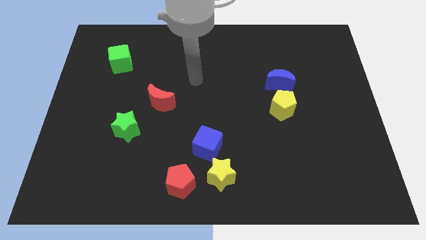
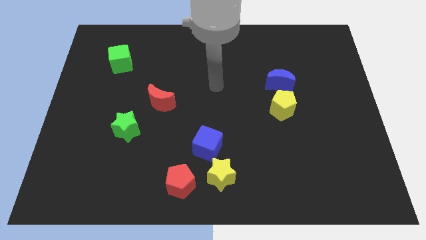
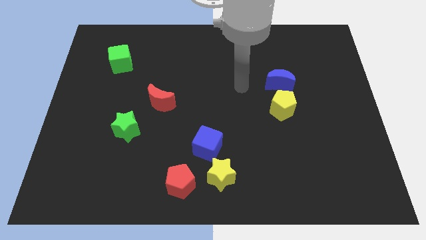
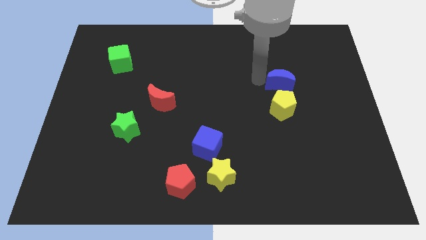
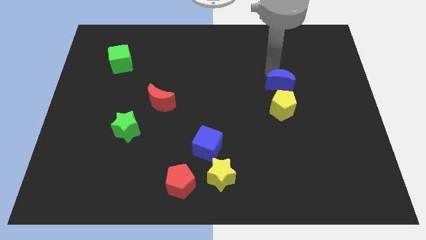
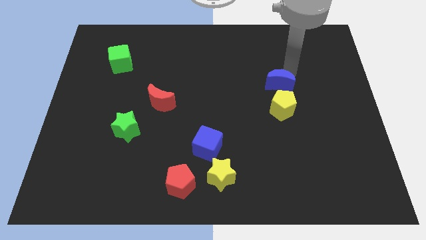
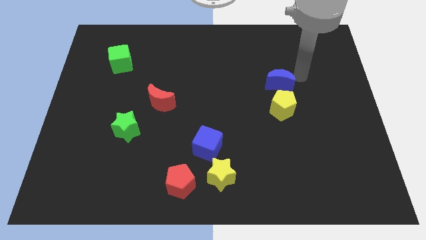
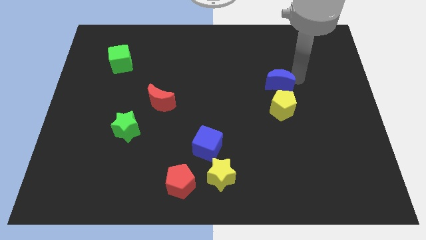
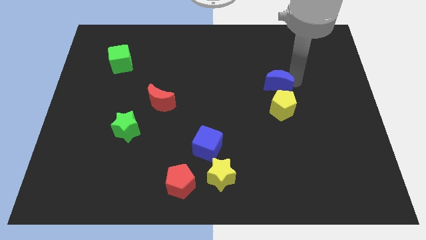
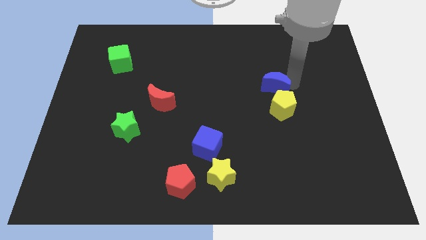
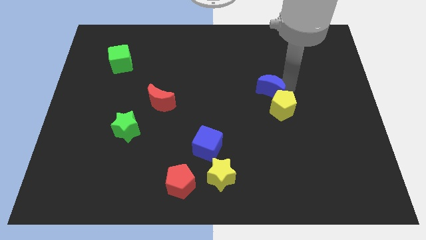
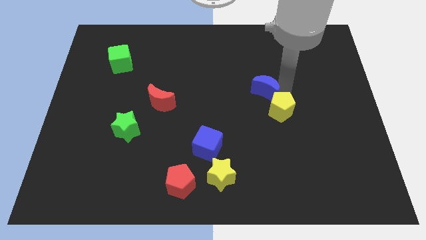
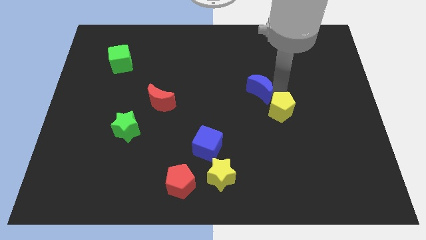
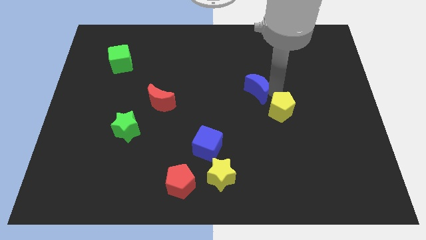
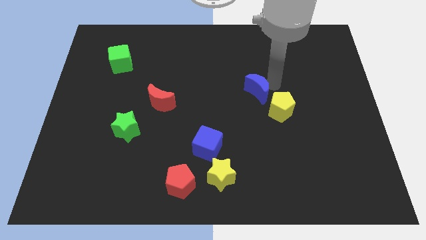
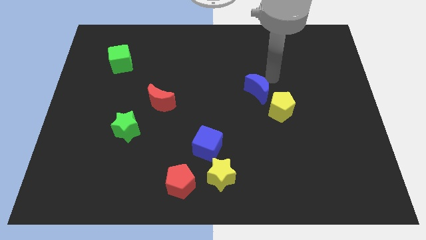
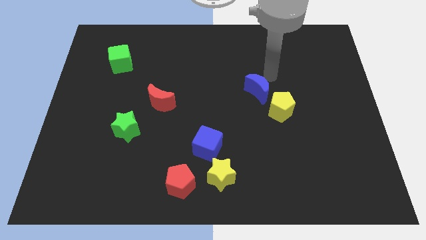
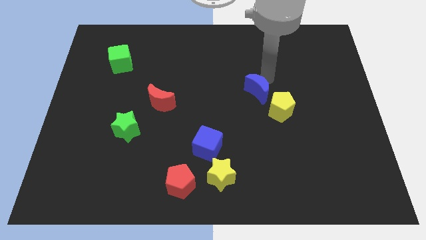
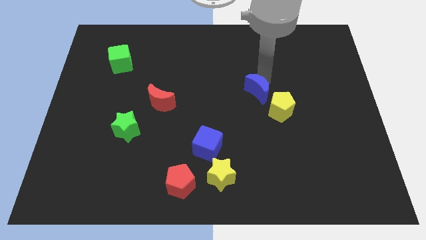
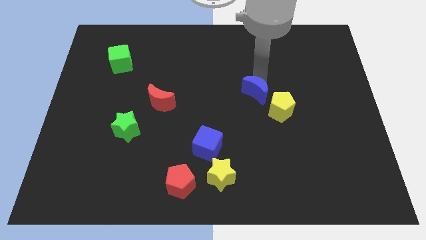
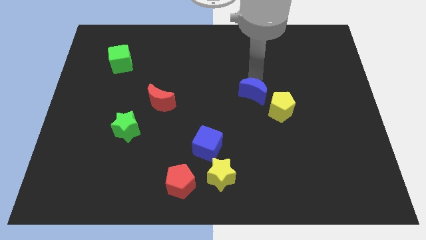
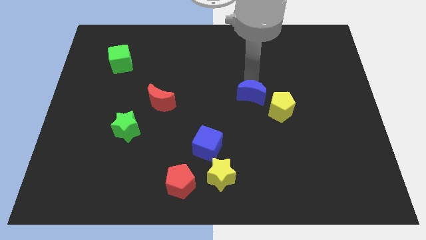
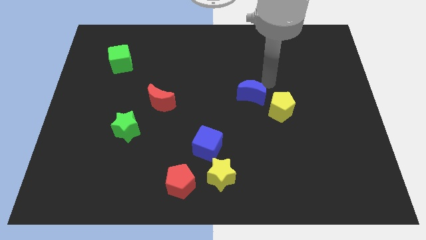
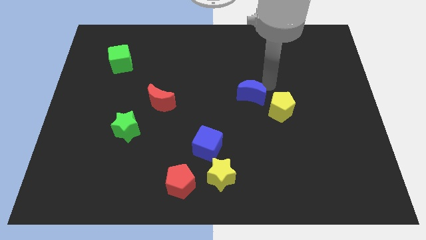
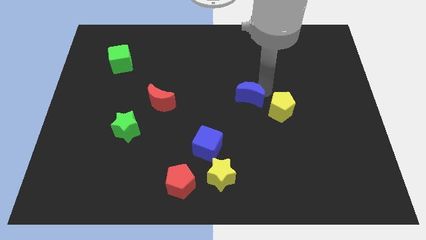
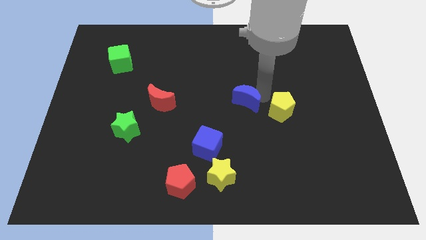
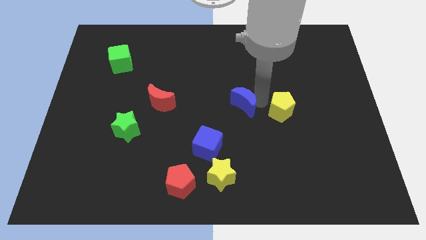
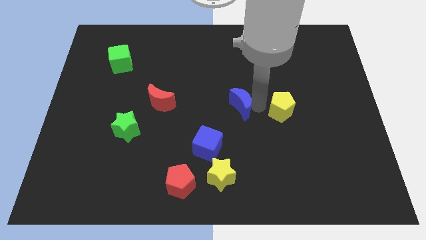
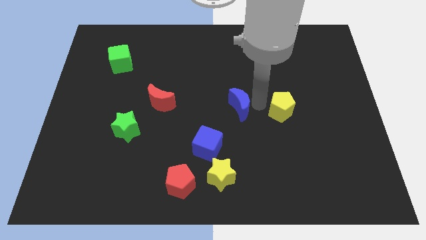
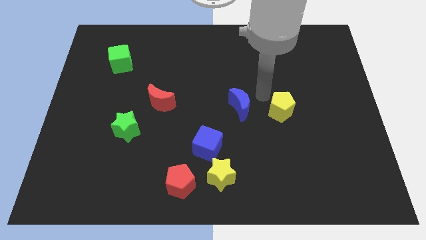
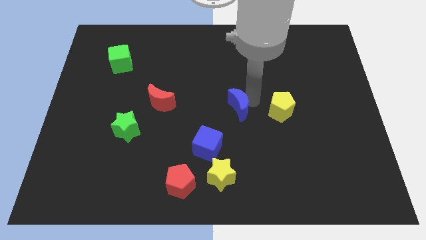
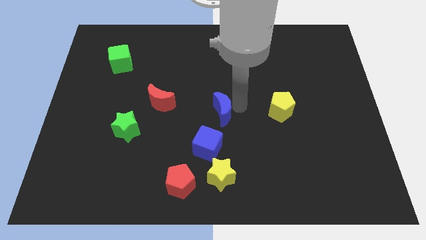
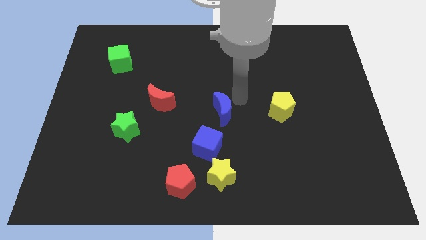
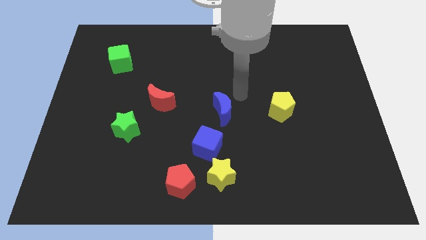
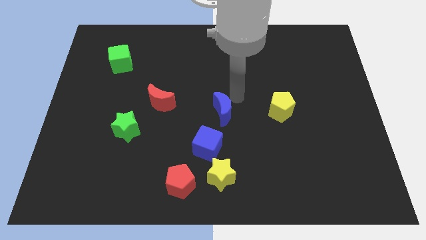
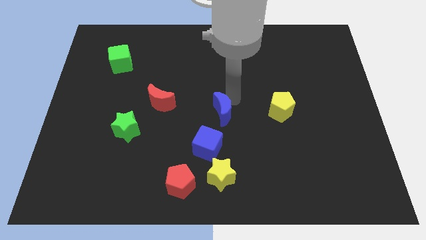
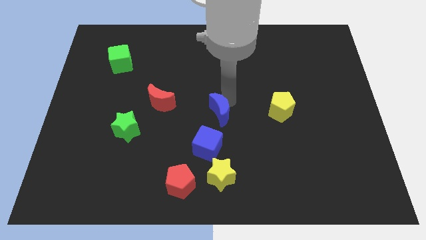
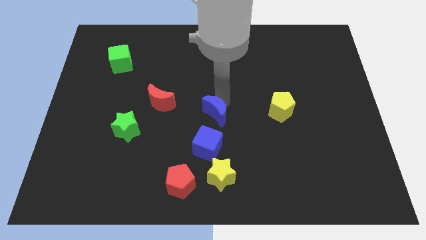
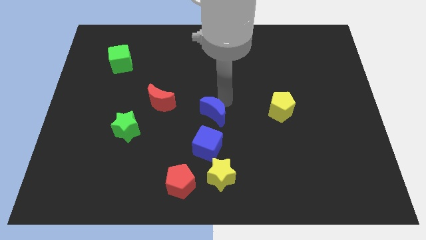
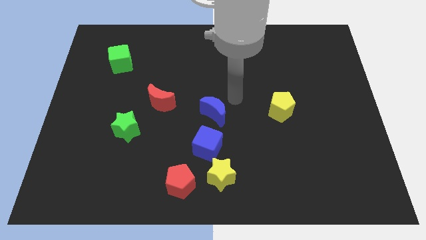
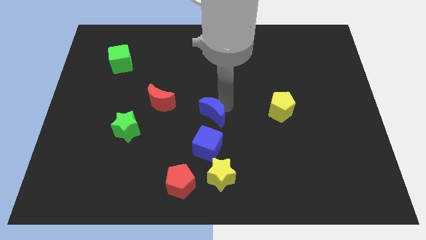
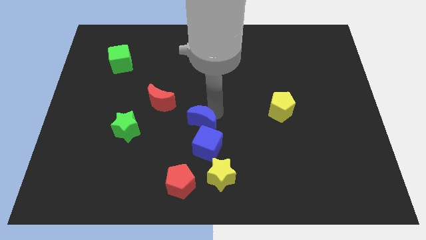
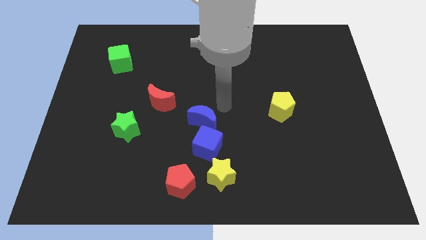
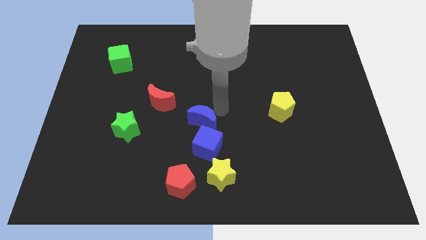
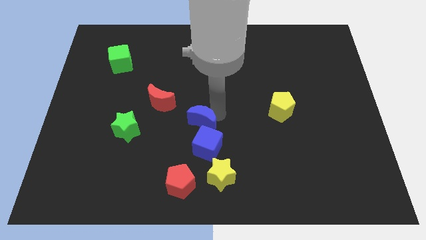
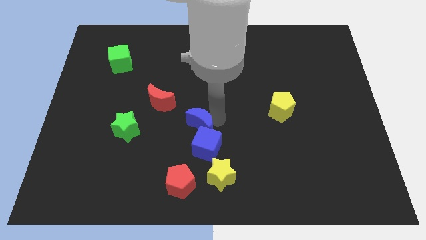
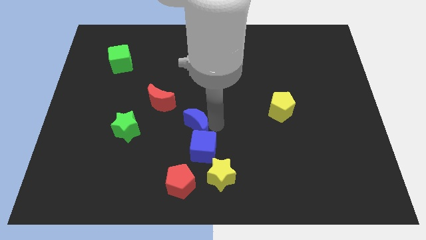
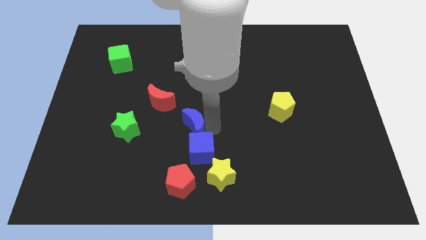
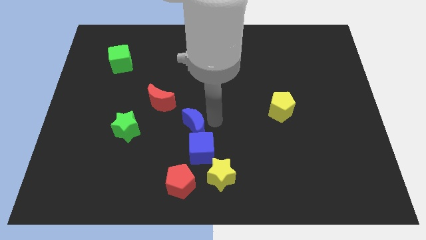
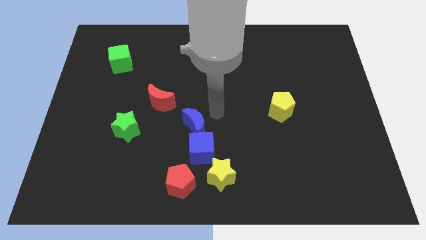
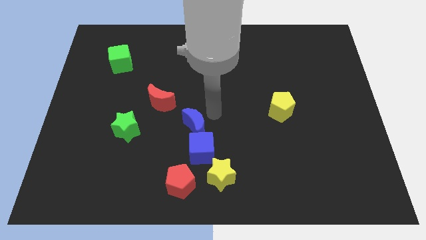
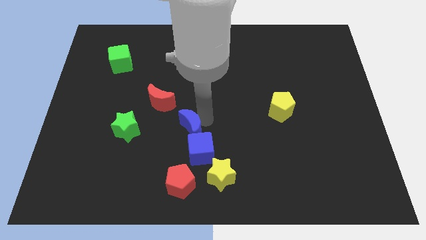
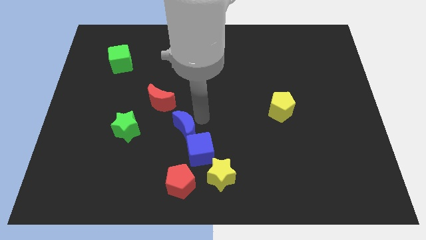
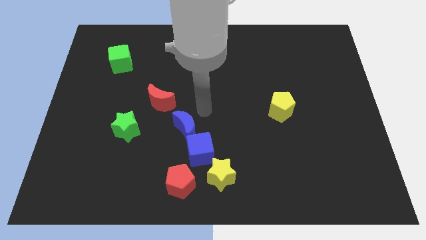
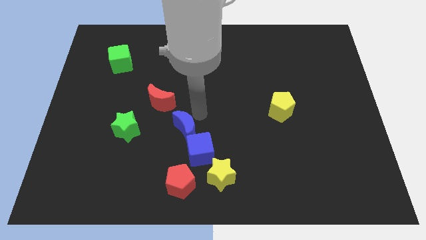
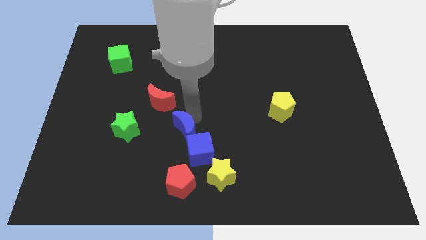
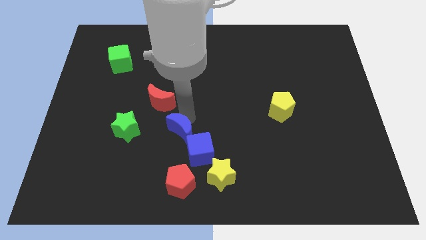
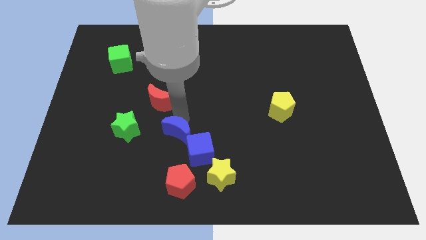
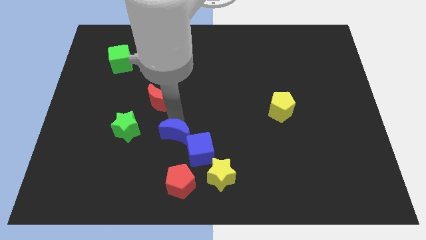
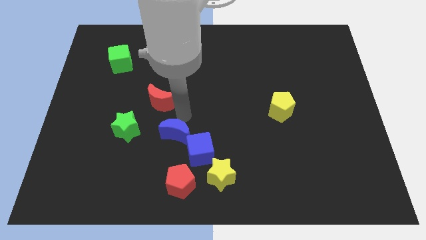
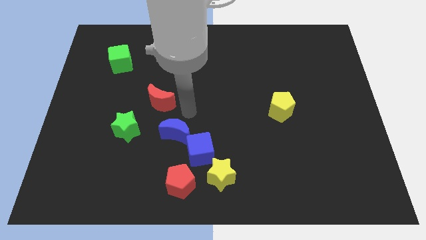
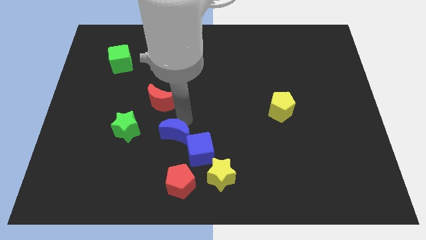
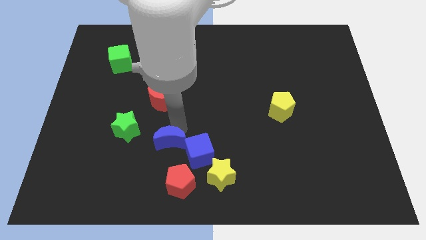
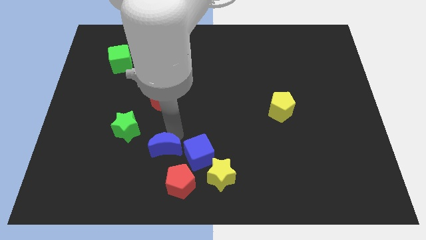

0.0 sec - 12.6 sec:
slide the blue moon diagonally up and to the left of the red pentagon

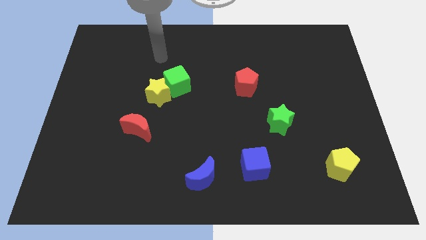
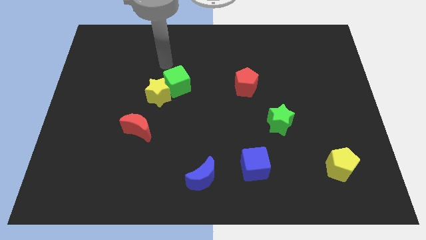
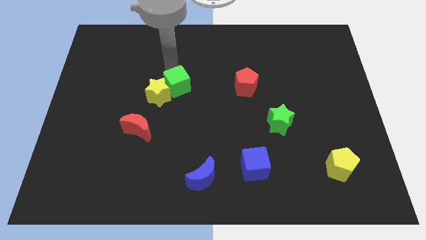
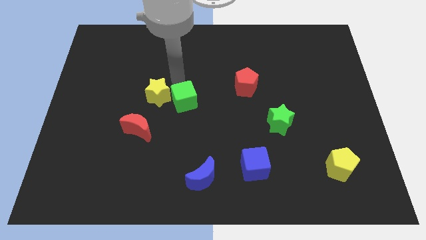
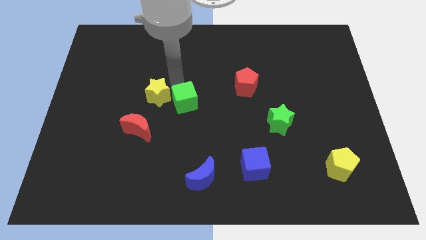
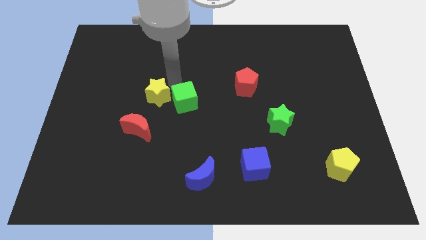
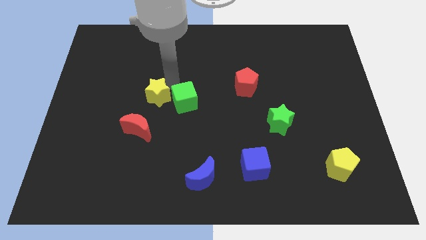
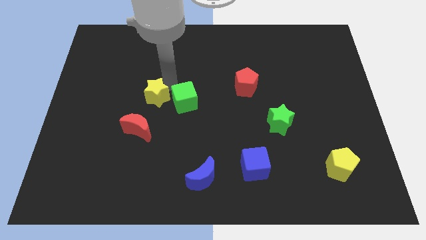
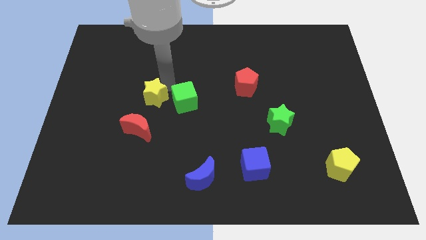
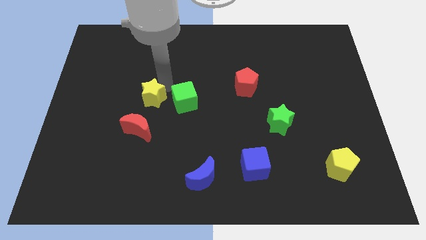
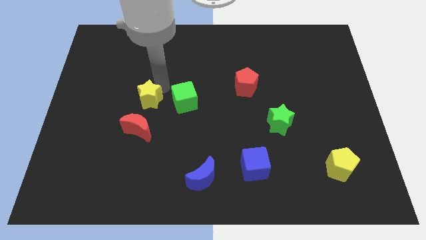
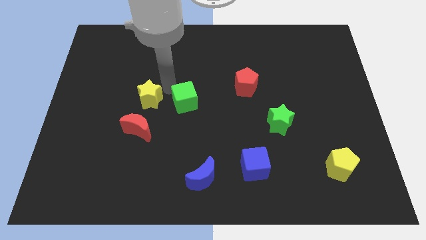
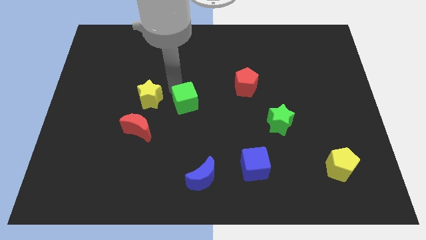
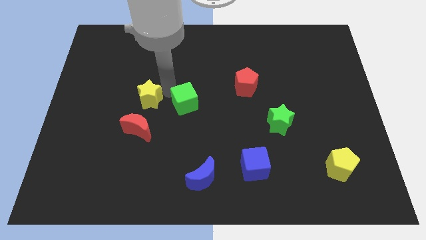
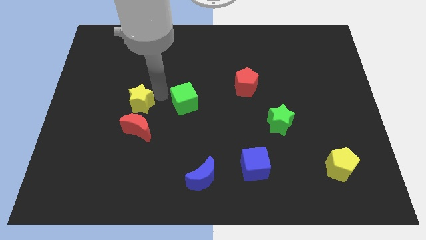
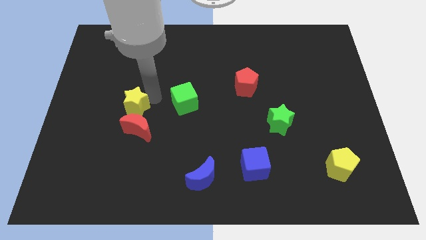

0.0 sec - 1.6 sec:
move the yellow star diagonally up and to the left of the red moon
